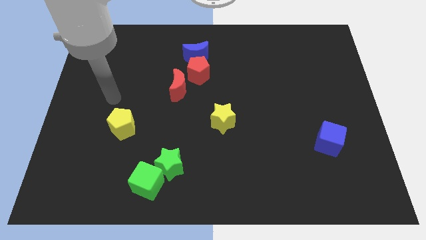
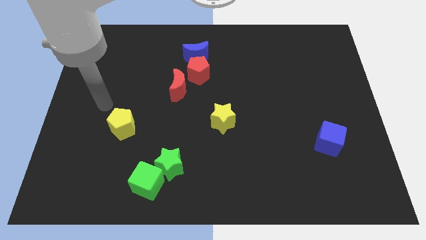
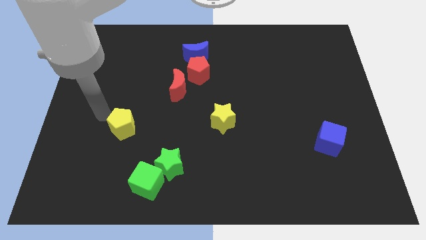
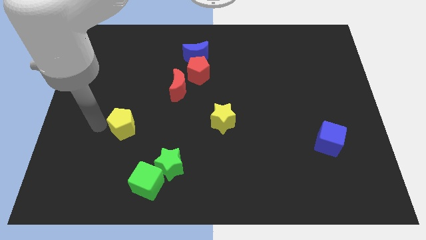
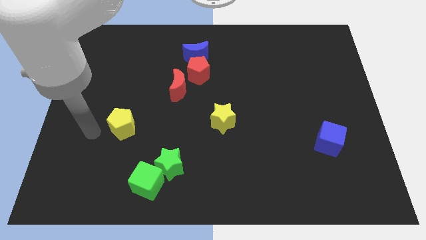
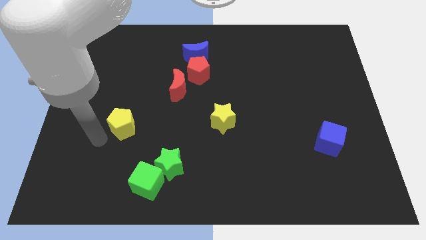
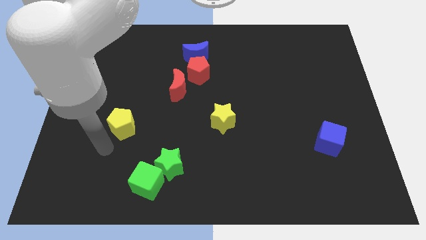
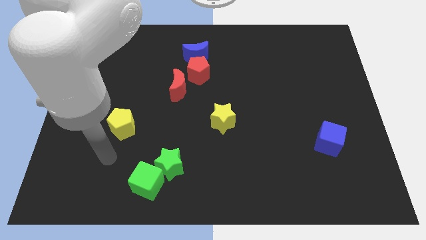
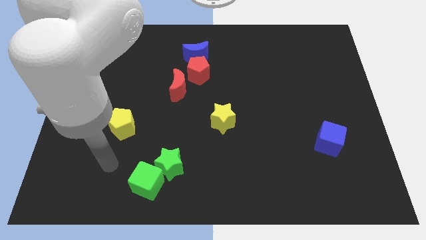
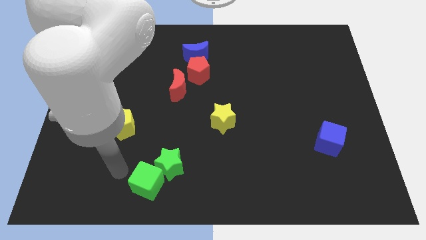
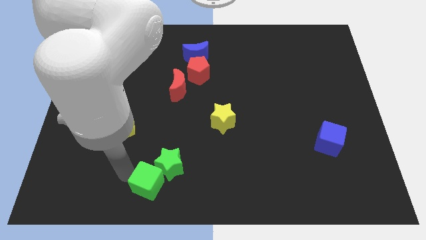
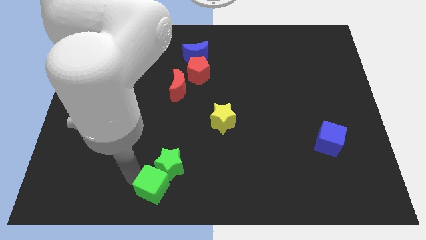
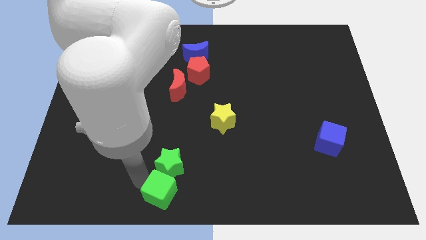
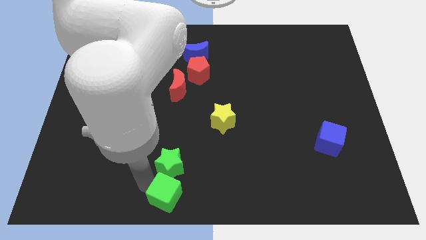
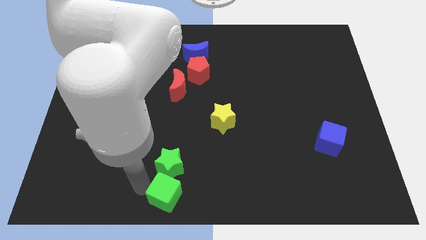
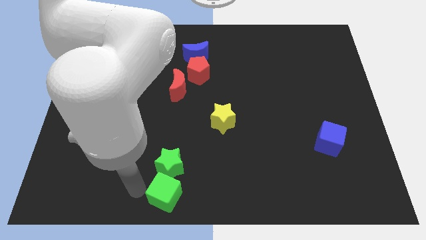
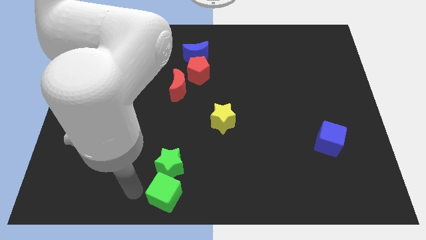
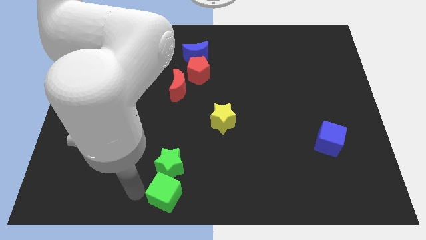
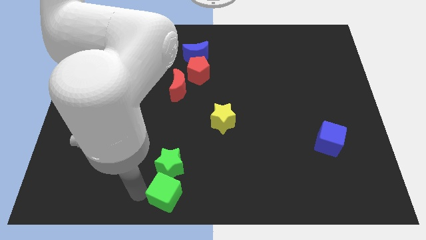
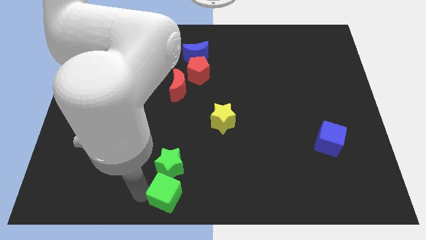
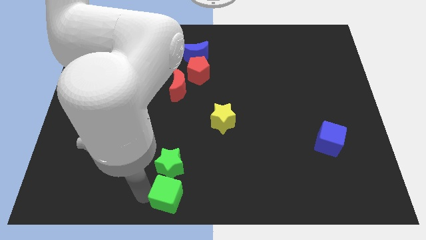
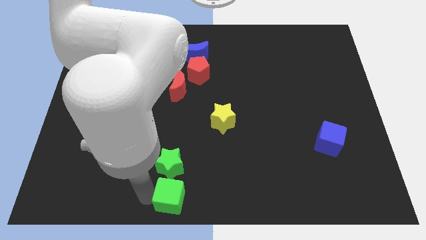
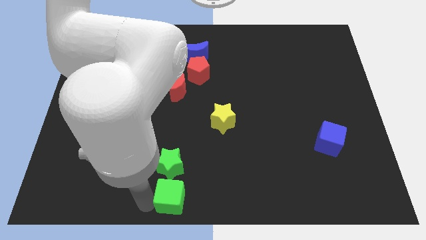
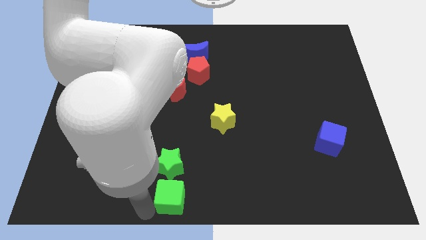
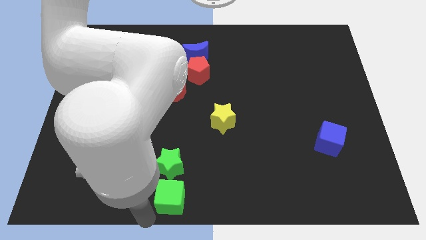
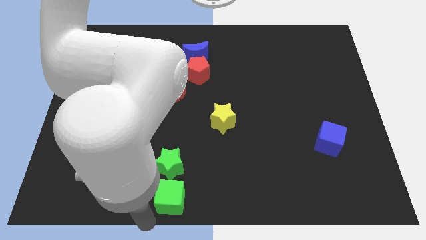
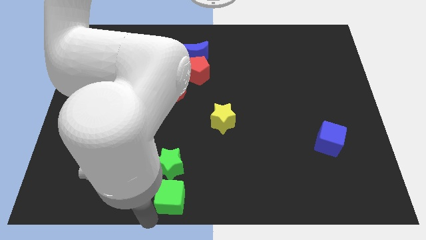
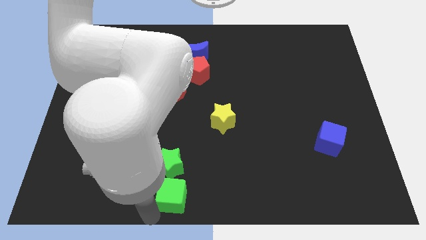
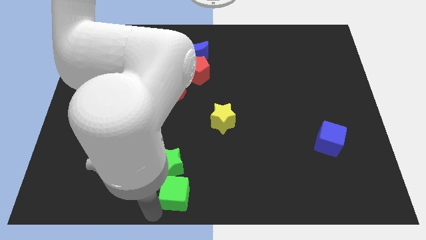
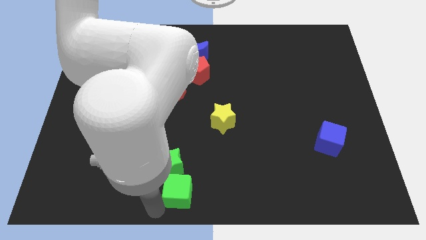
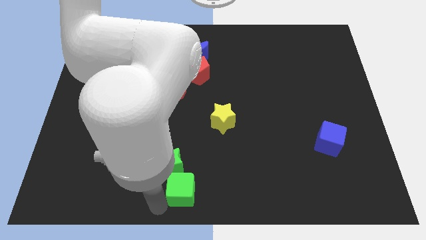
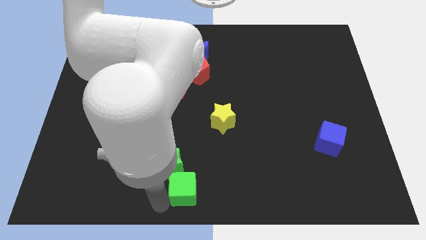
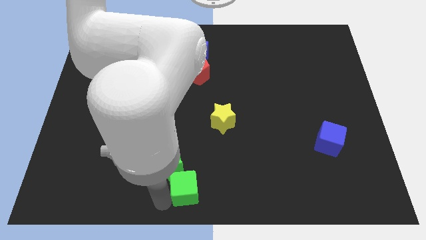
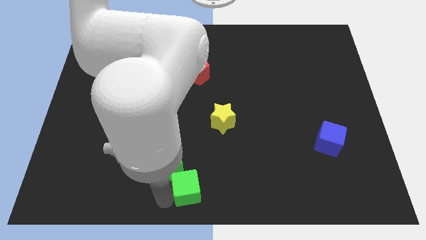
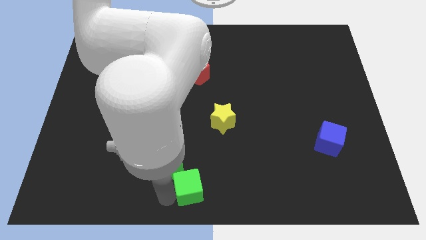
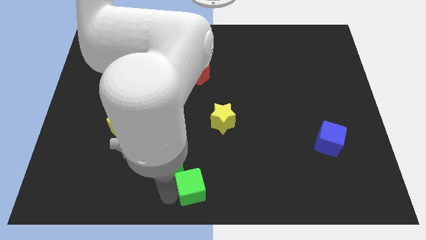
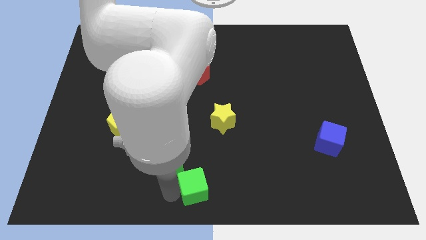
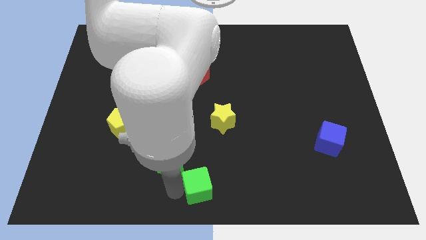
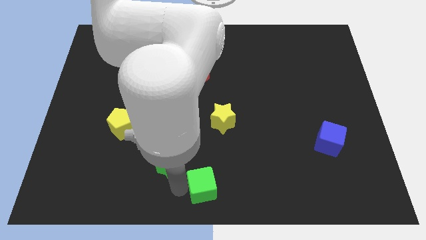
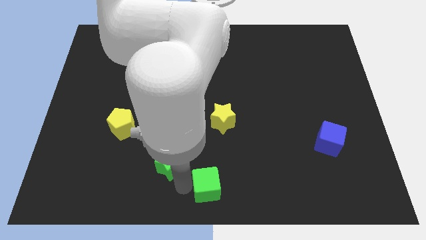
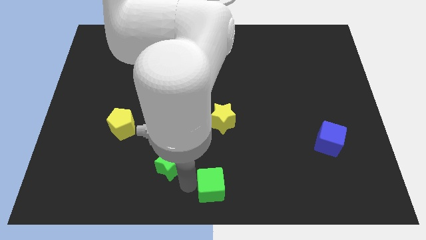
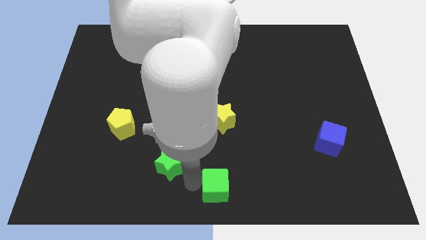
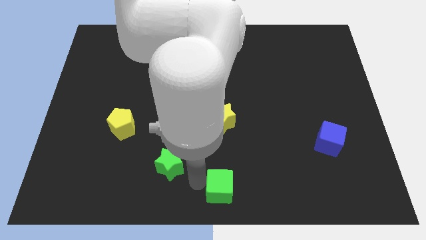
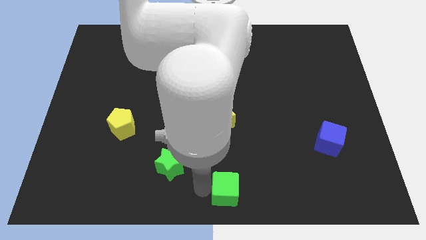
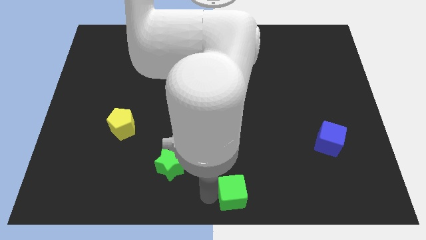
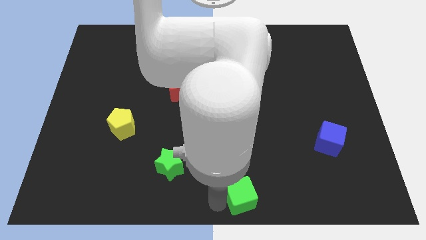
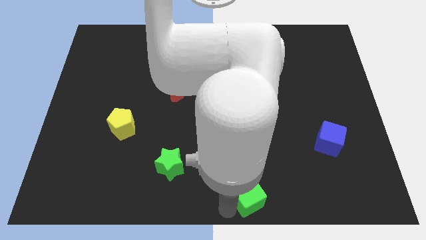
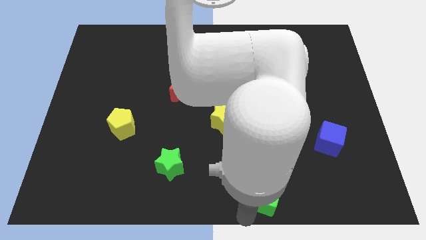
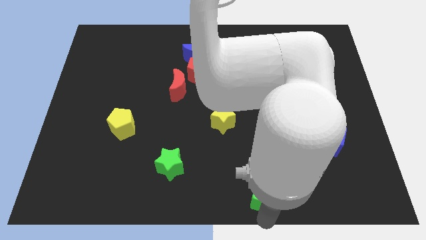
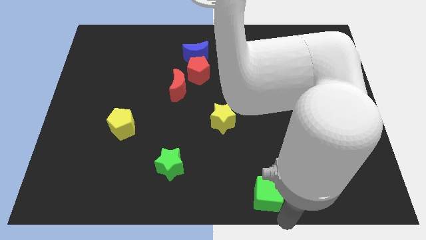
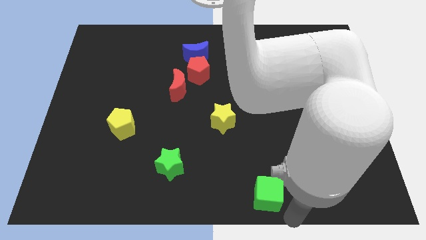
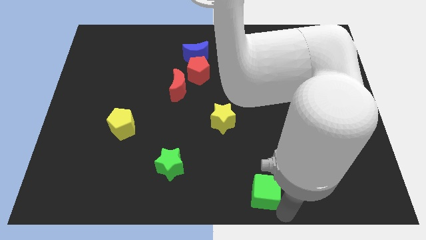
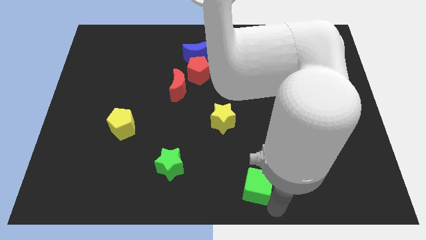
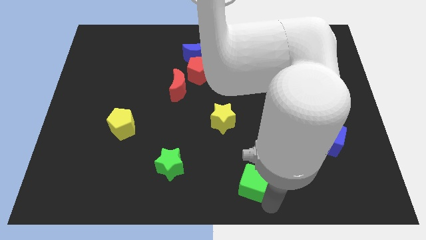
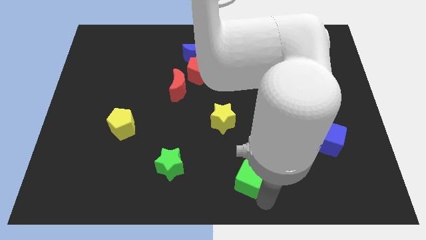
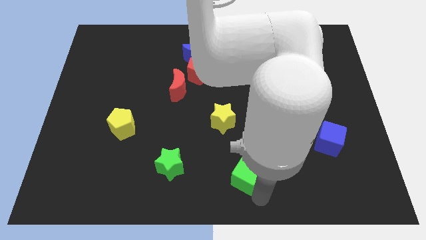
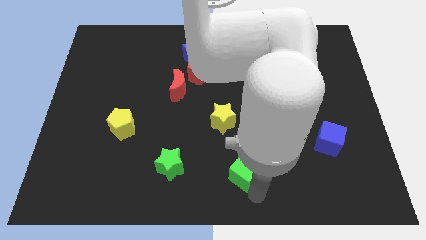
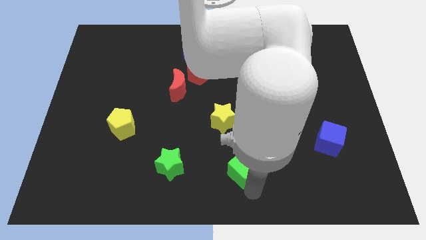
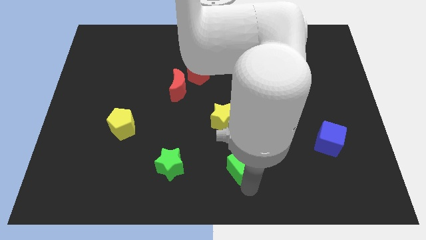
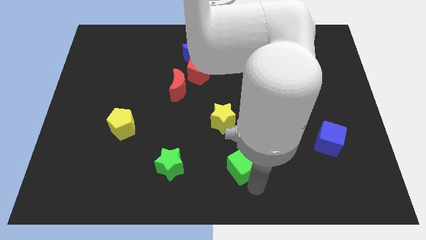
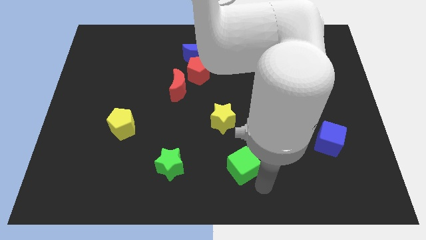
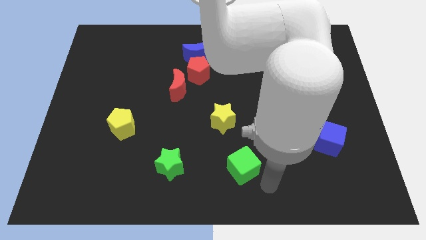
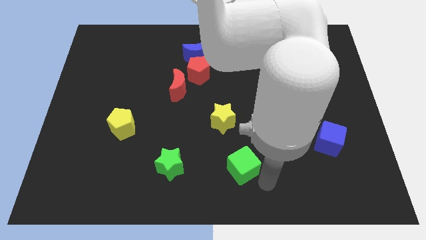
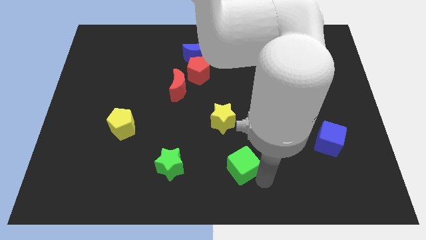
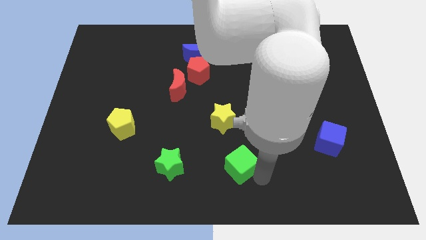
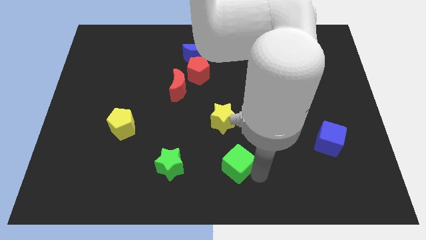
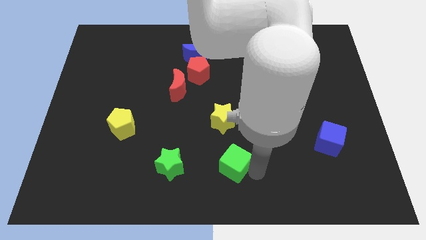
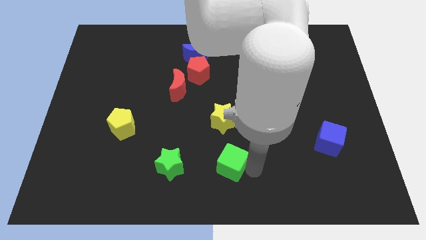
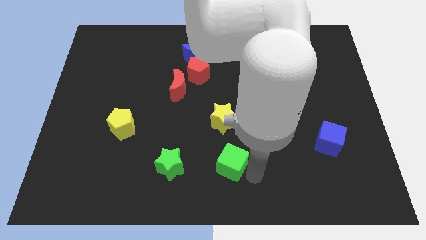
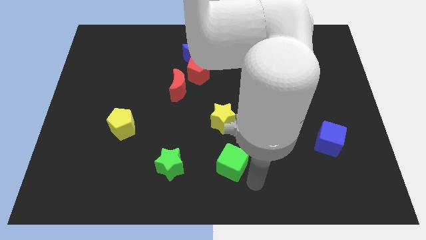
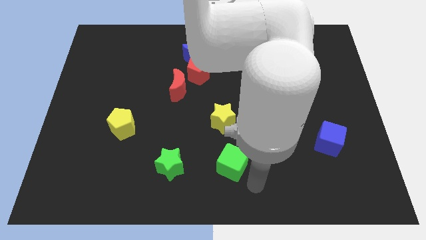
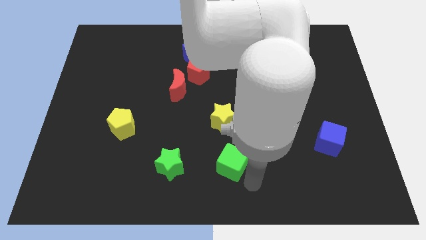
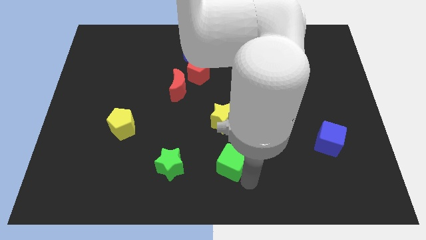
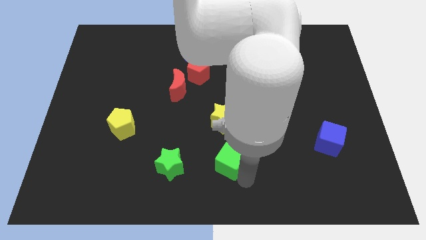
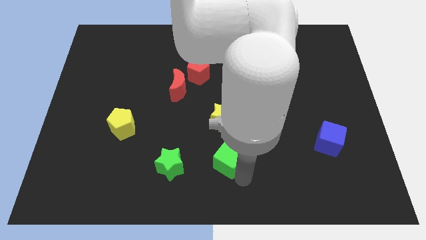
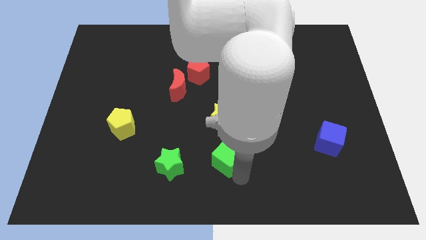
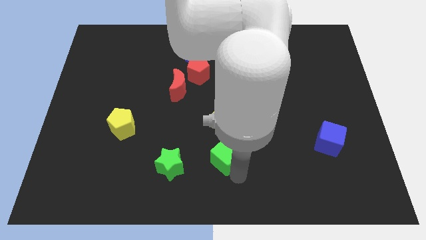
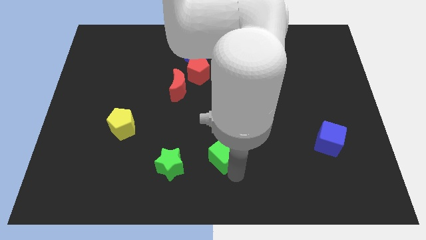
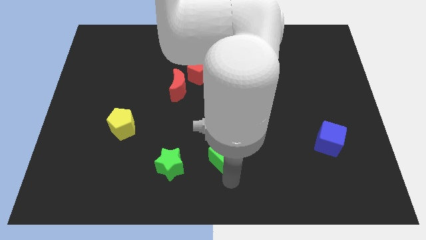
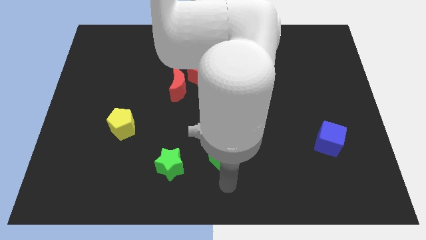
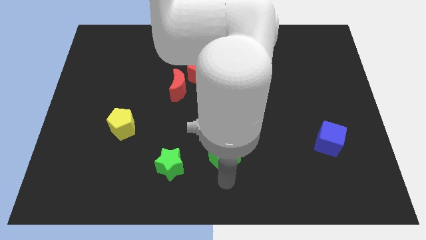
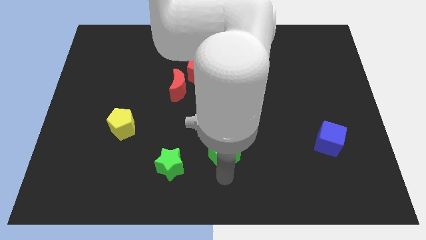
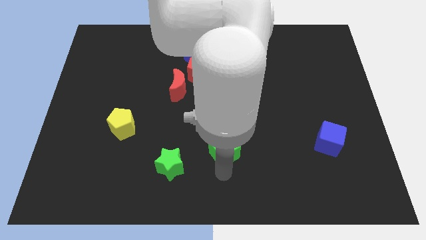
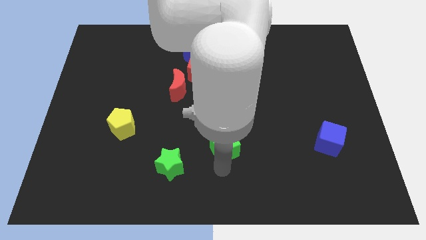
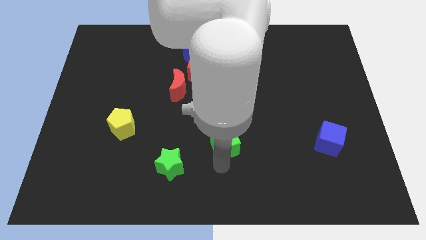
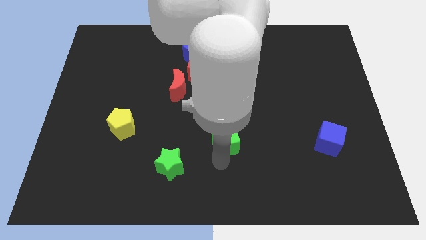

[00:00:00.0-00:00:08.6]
move the green cube close to the yellow star
